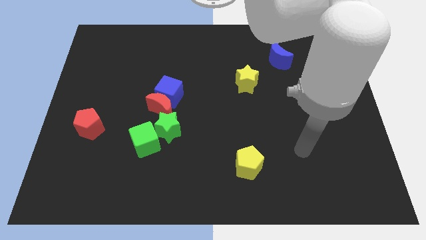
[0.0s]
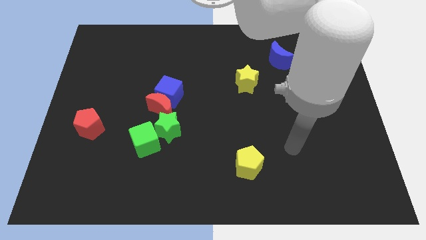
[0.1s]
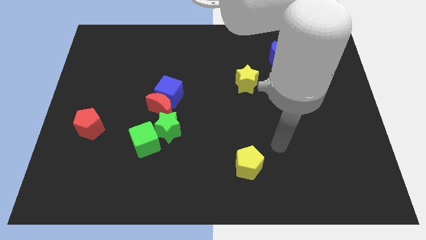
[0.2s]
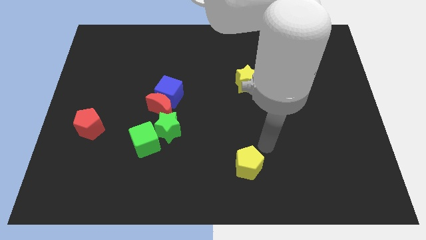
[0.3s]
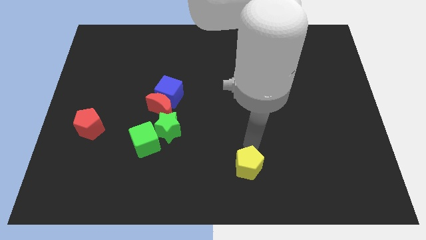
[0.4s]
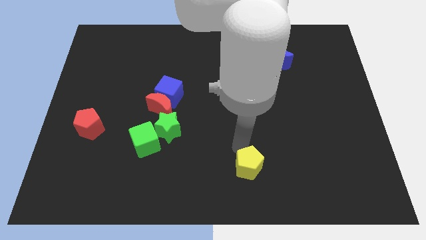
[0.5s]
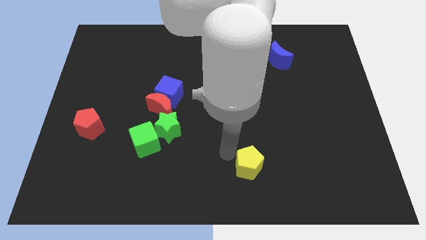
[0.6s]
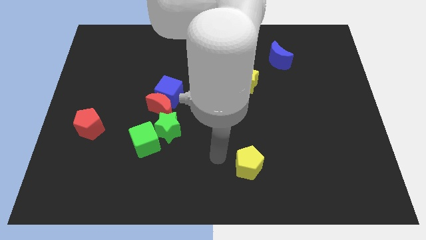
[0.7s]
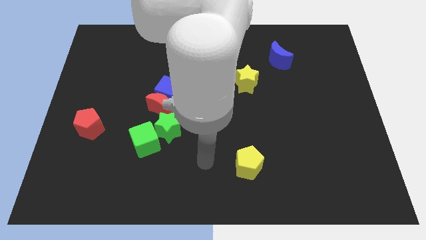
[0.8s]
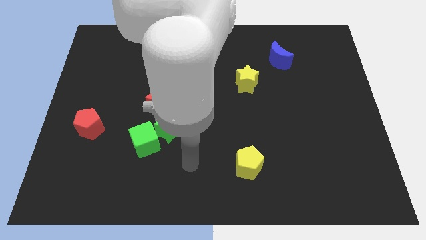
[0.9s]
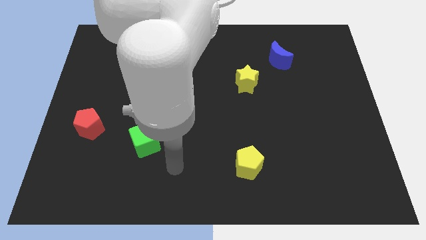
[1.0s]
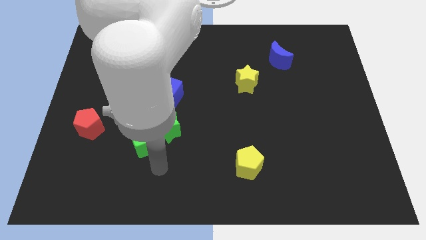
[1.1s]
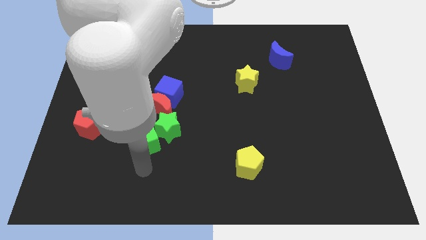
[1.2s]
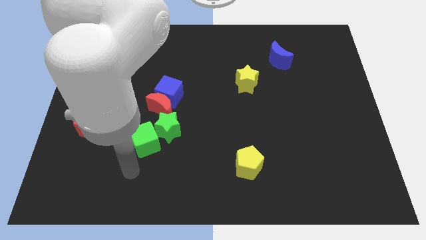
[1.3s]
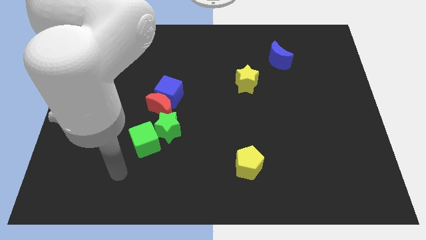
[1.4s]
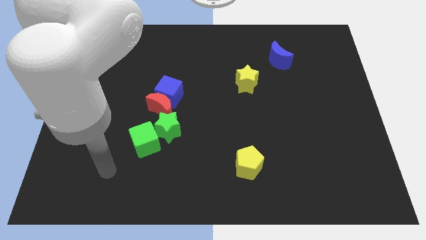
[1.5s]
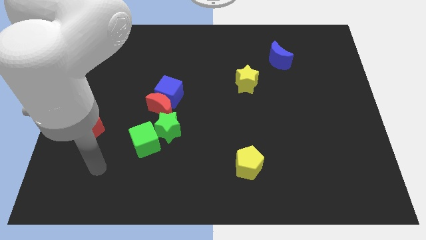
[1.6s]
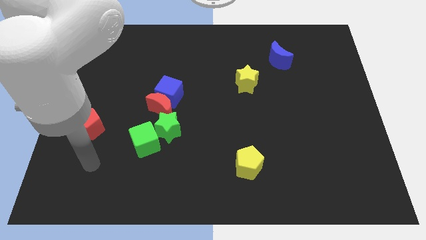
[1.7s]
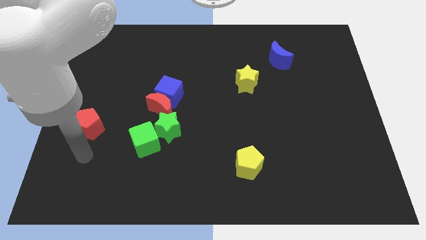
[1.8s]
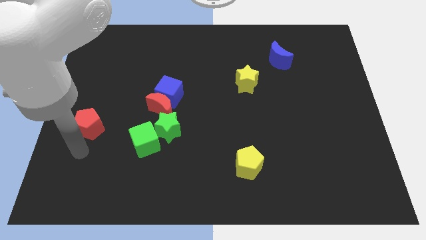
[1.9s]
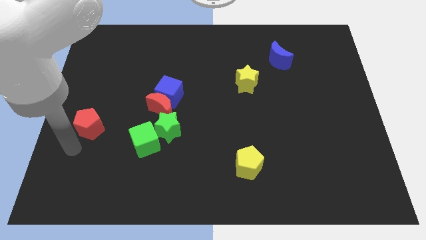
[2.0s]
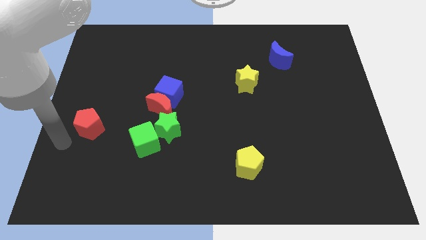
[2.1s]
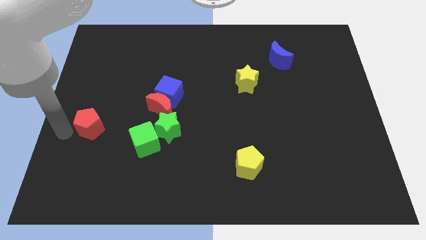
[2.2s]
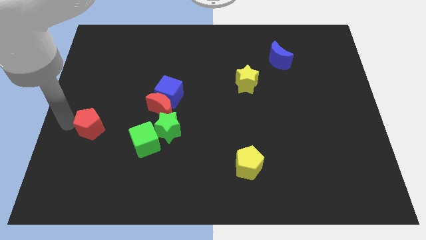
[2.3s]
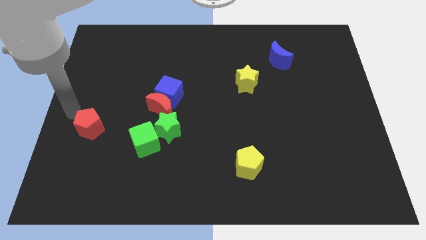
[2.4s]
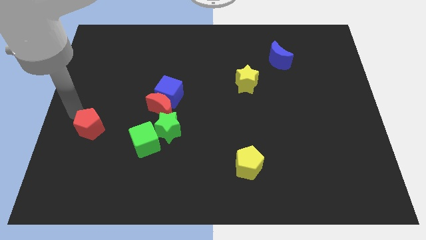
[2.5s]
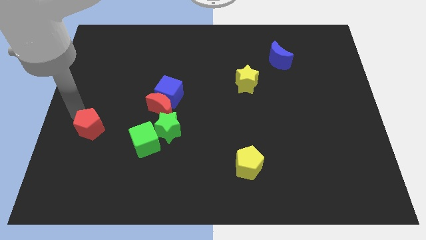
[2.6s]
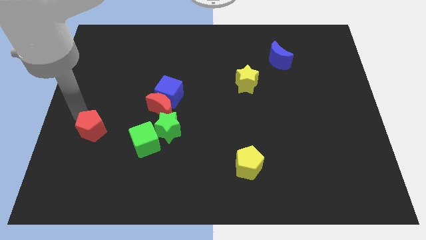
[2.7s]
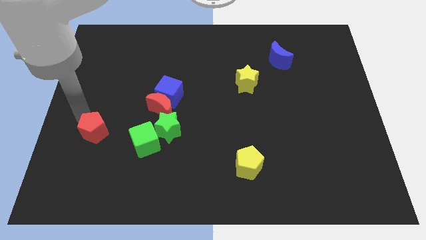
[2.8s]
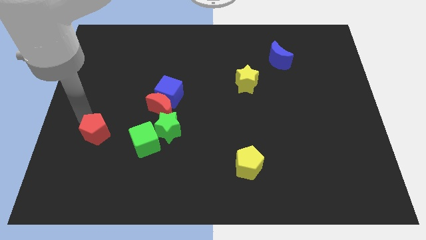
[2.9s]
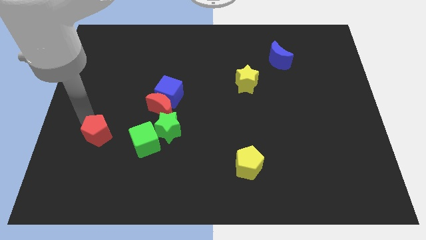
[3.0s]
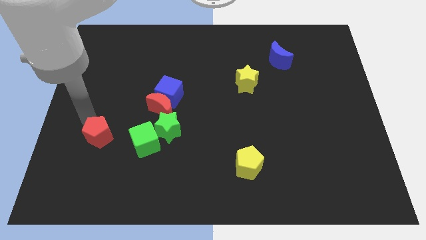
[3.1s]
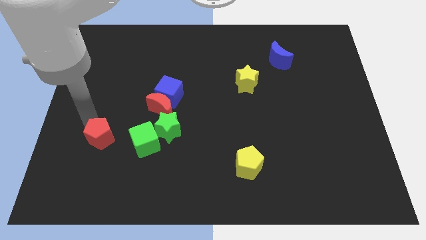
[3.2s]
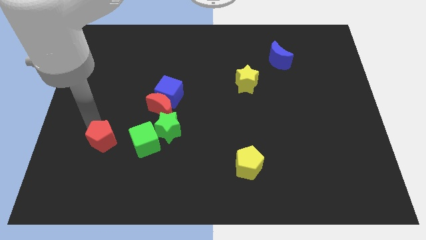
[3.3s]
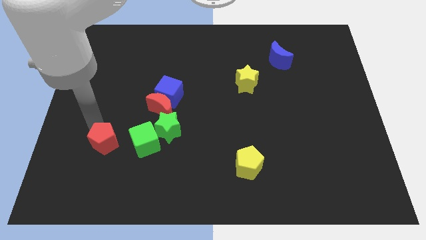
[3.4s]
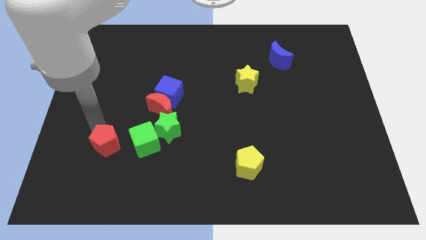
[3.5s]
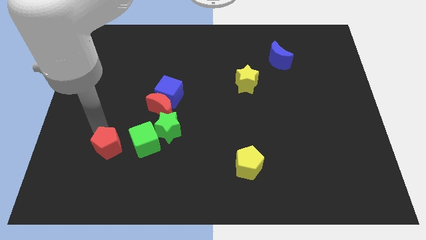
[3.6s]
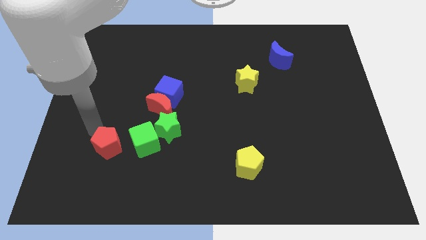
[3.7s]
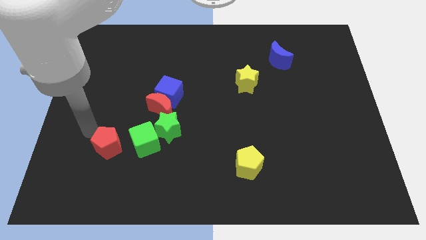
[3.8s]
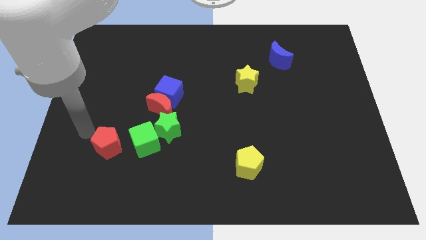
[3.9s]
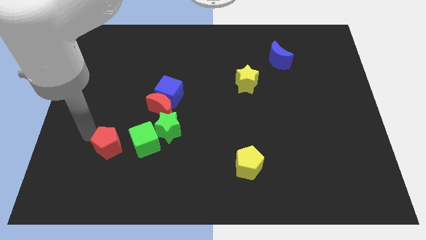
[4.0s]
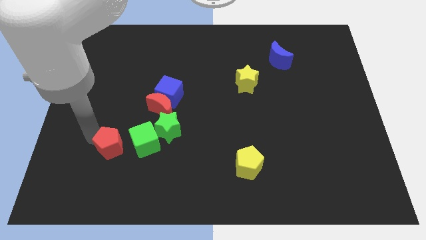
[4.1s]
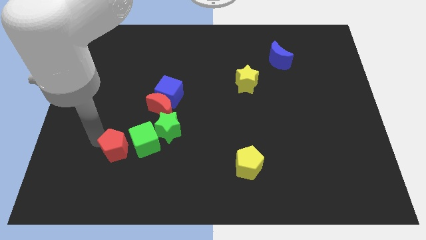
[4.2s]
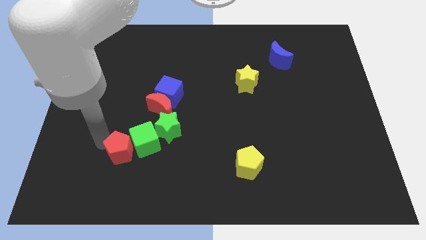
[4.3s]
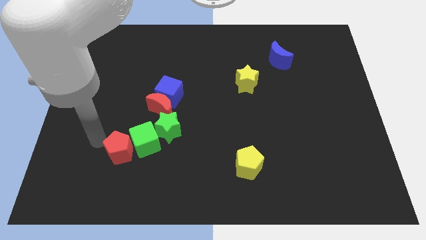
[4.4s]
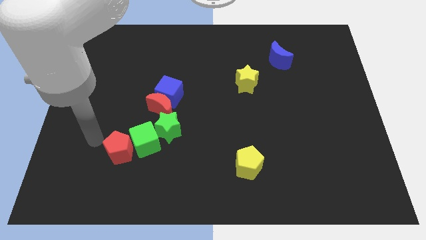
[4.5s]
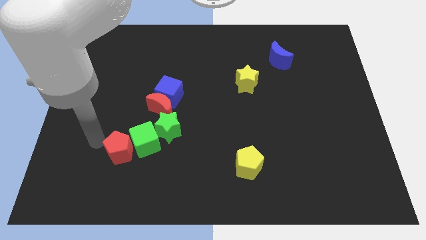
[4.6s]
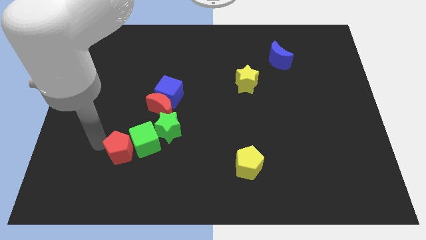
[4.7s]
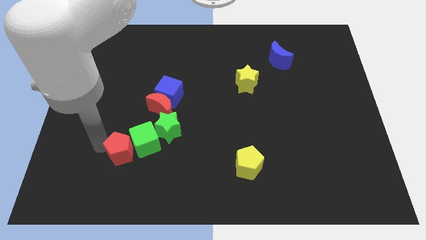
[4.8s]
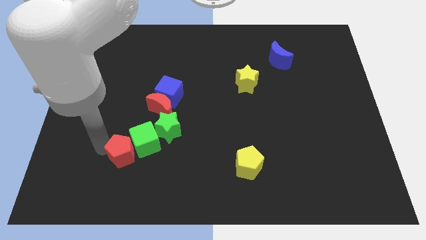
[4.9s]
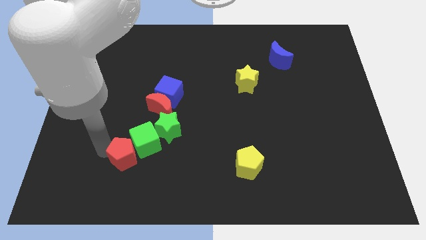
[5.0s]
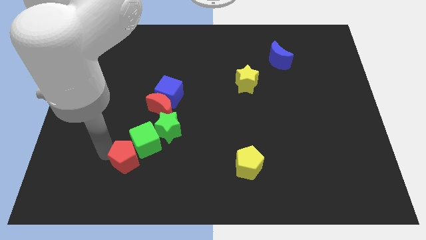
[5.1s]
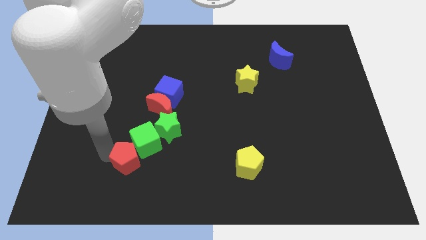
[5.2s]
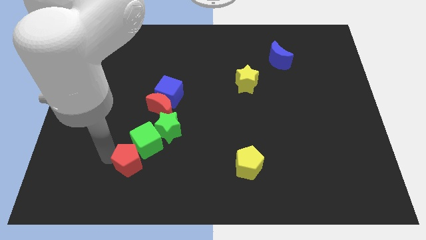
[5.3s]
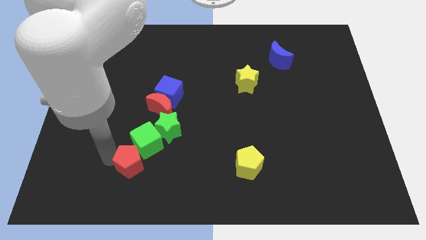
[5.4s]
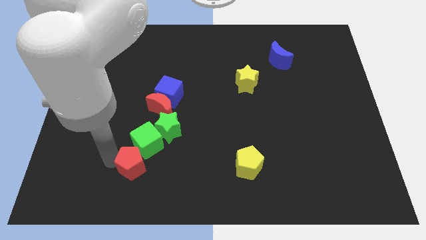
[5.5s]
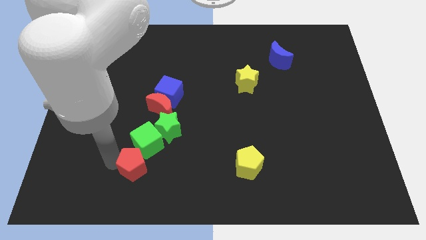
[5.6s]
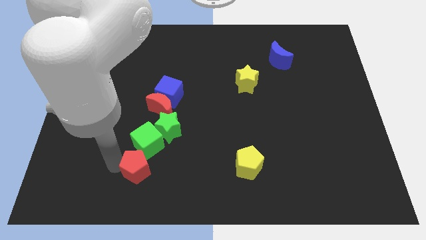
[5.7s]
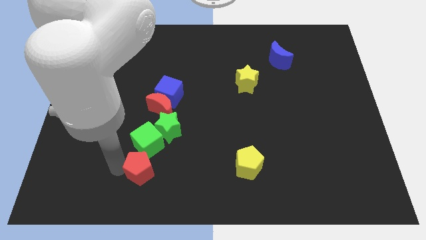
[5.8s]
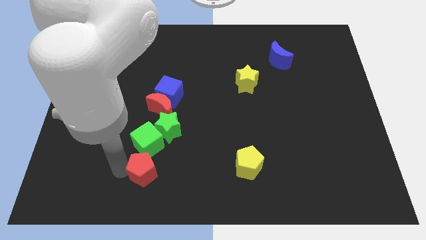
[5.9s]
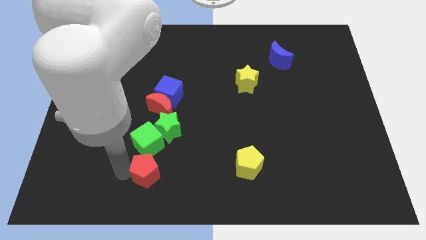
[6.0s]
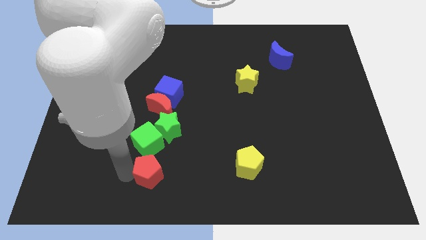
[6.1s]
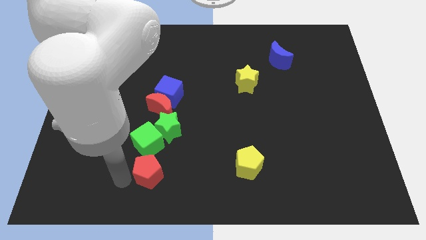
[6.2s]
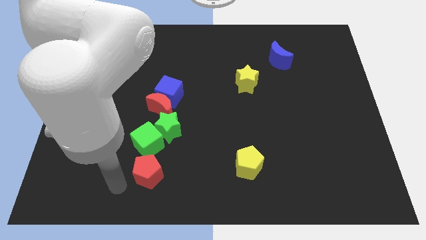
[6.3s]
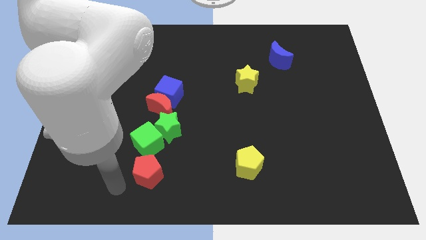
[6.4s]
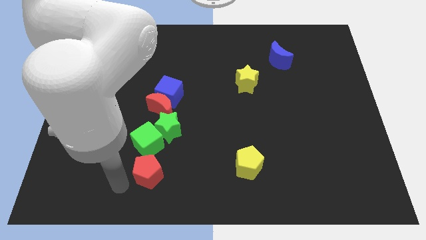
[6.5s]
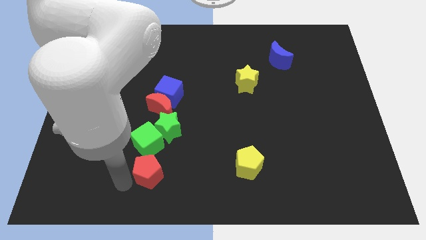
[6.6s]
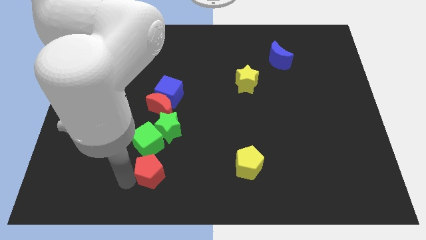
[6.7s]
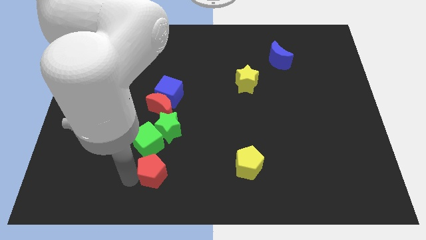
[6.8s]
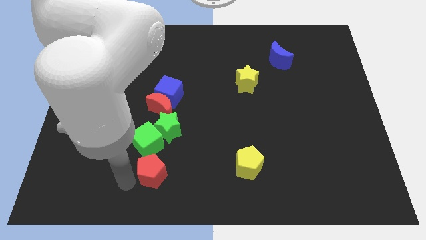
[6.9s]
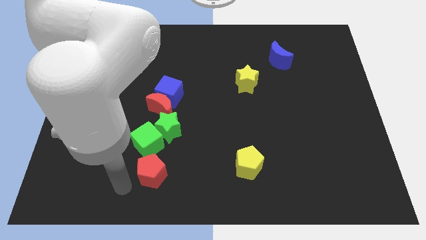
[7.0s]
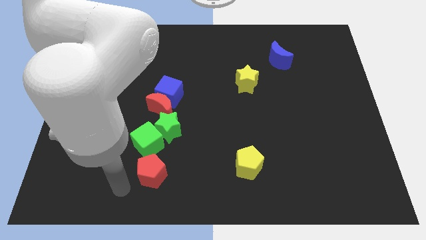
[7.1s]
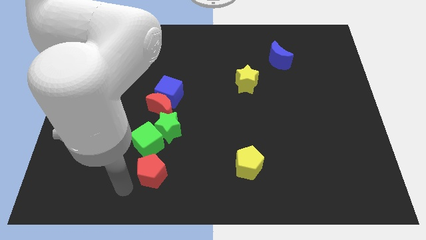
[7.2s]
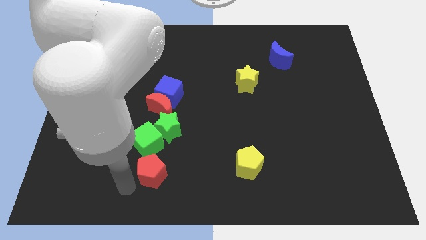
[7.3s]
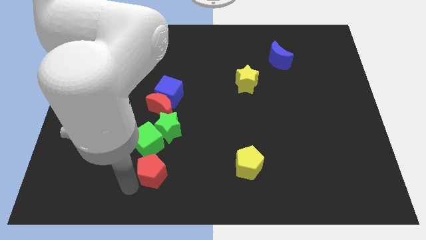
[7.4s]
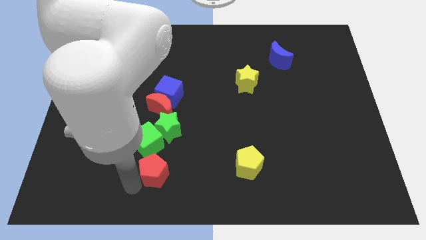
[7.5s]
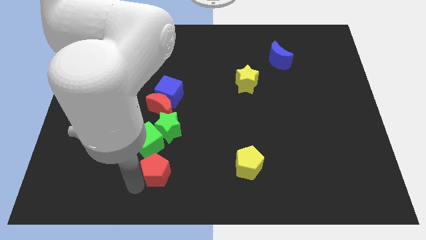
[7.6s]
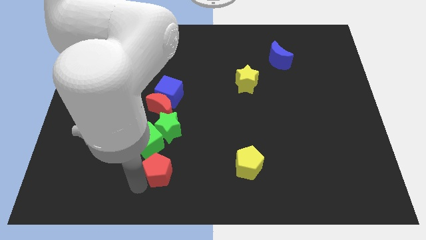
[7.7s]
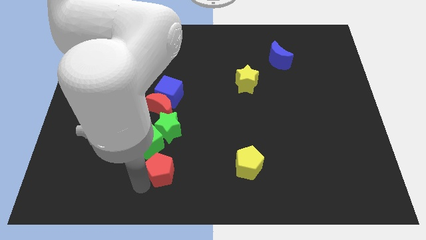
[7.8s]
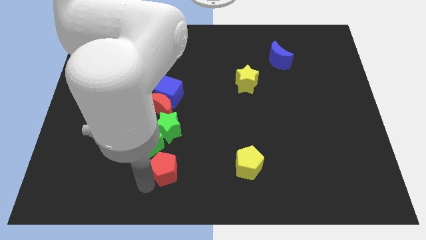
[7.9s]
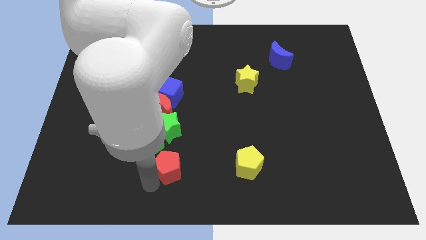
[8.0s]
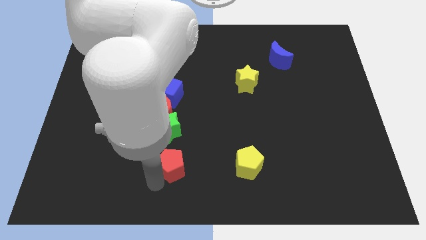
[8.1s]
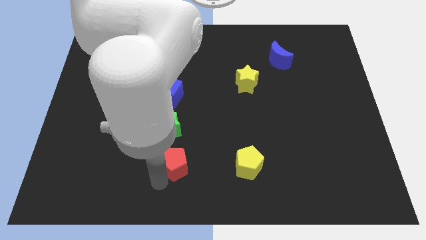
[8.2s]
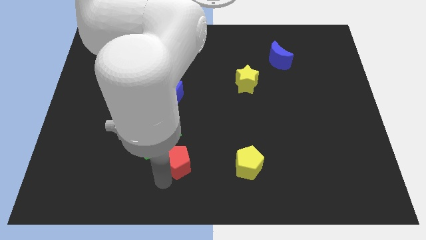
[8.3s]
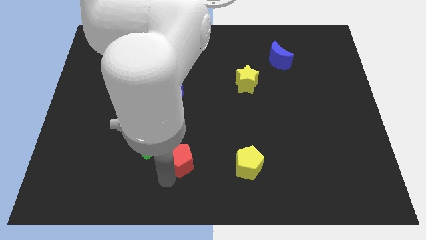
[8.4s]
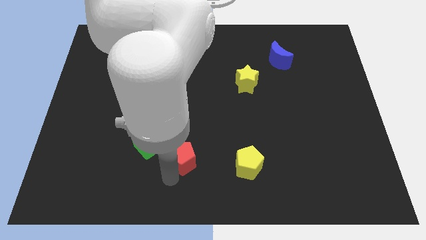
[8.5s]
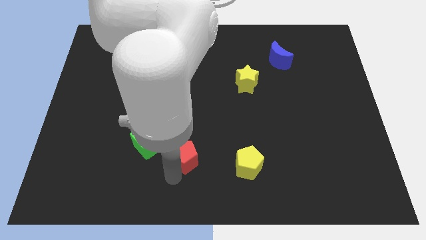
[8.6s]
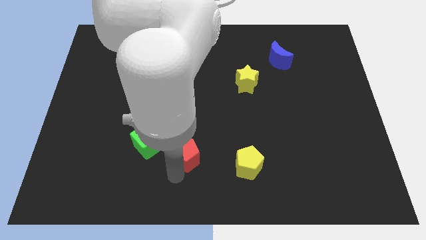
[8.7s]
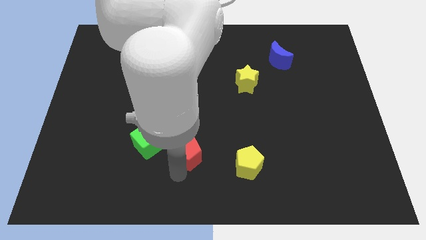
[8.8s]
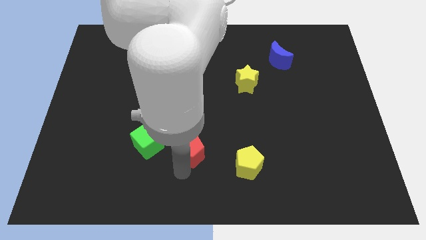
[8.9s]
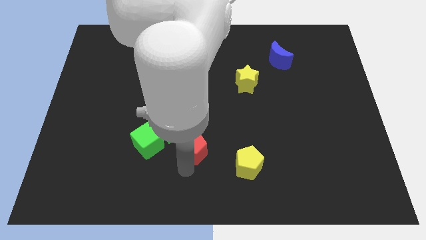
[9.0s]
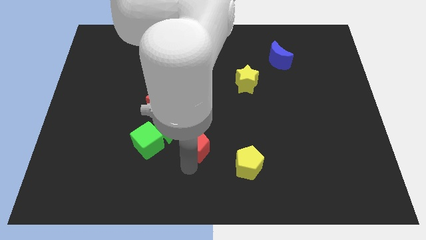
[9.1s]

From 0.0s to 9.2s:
push the red pentagon right of the green star
